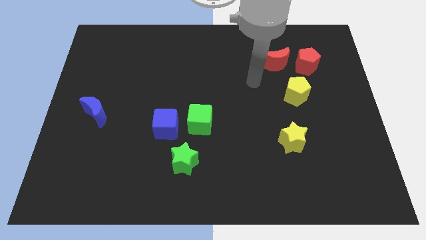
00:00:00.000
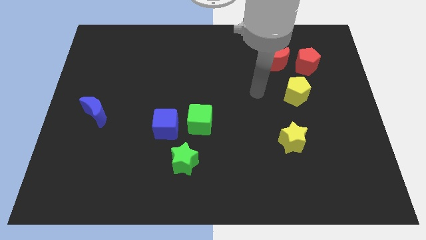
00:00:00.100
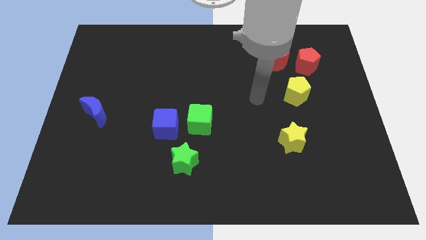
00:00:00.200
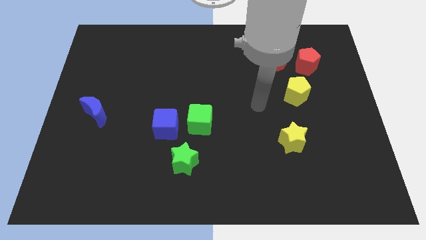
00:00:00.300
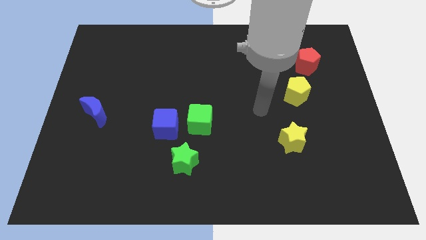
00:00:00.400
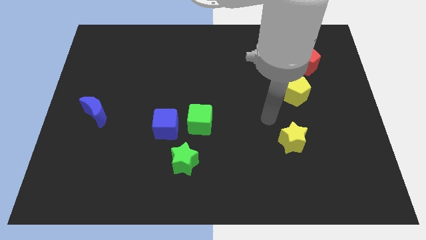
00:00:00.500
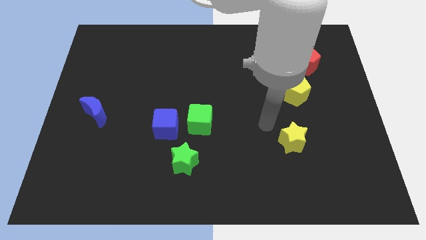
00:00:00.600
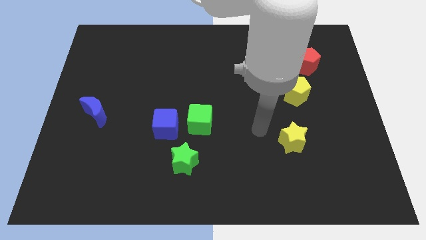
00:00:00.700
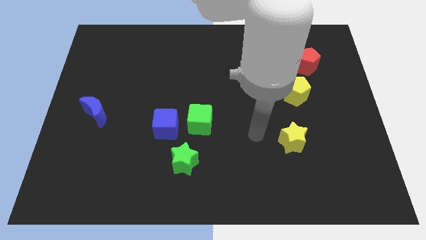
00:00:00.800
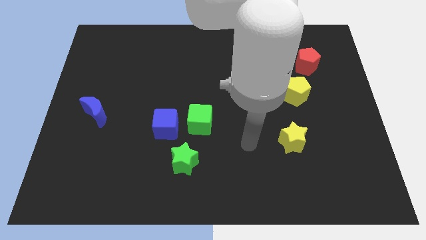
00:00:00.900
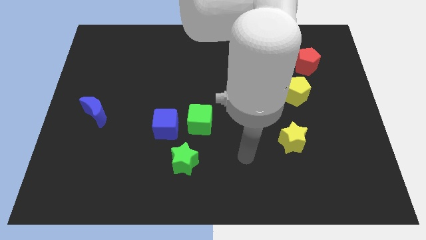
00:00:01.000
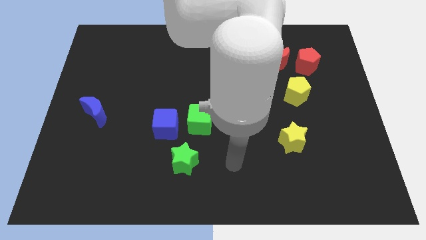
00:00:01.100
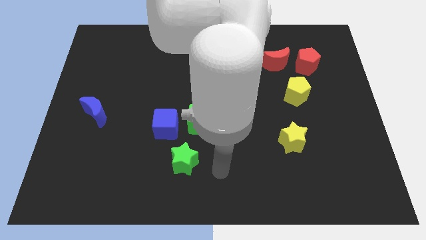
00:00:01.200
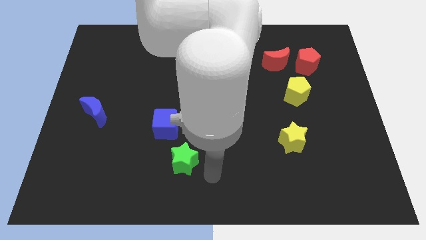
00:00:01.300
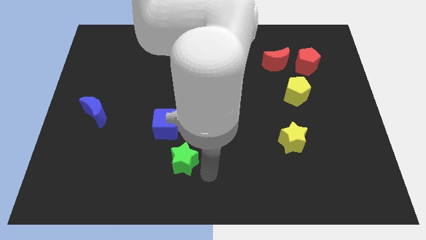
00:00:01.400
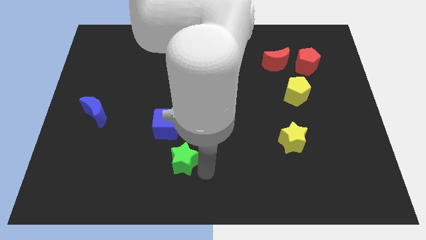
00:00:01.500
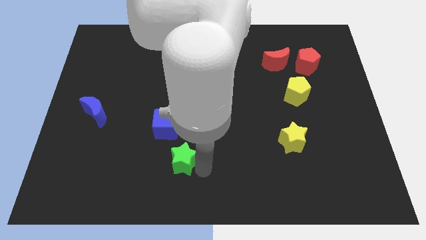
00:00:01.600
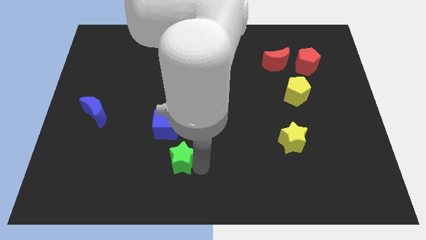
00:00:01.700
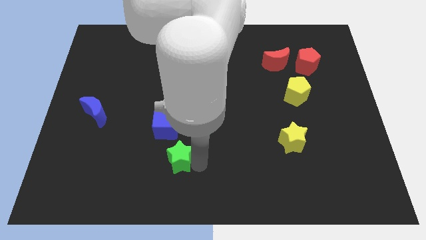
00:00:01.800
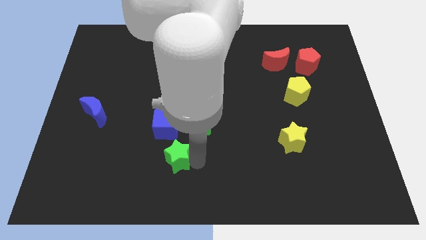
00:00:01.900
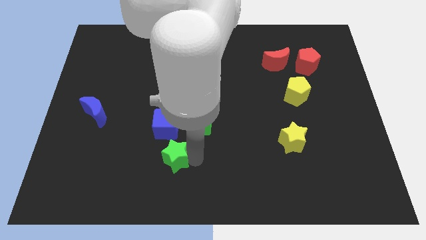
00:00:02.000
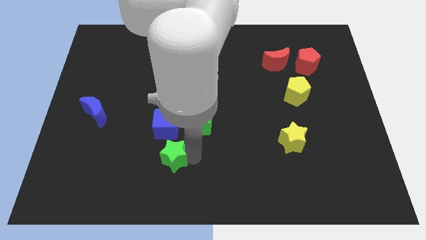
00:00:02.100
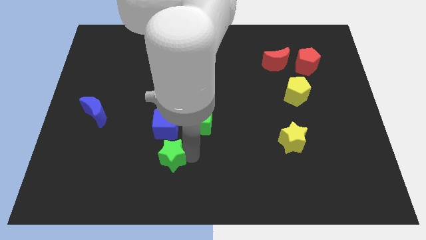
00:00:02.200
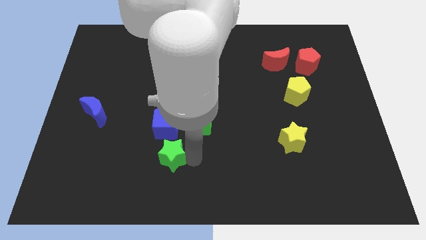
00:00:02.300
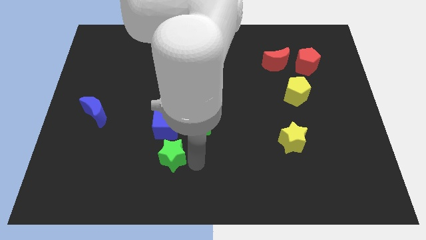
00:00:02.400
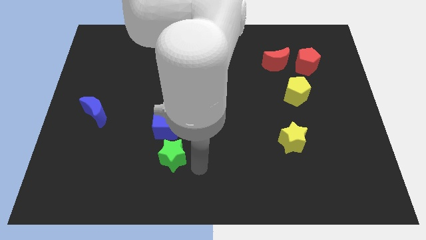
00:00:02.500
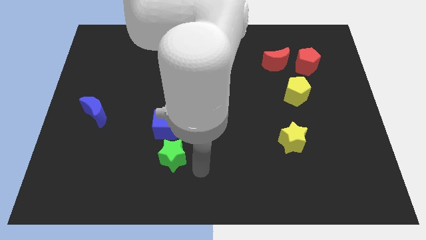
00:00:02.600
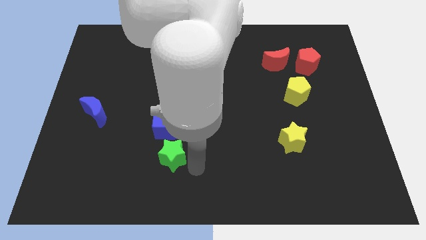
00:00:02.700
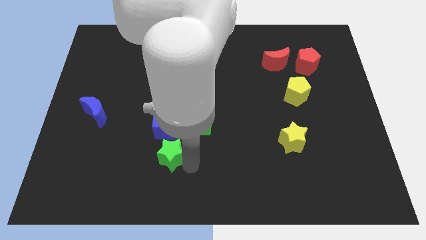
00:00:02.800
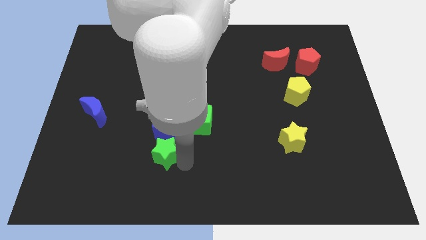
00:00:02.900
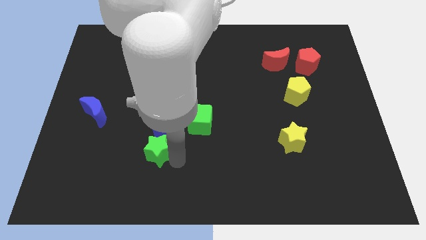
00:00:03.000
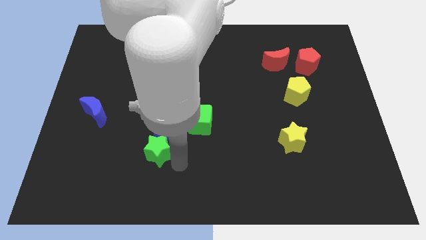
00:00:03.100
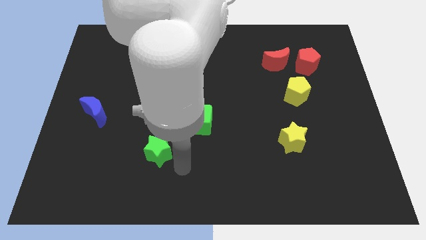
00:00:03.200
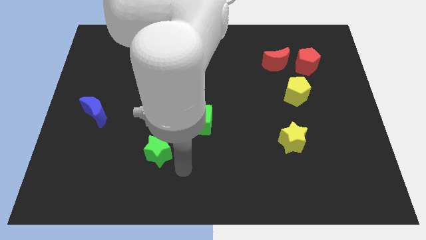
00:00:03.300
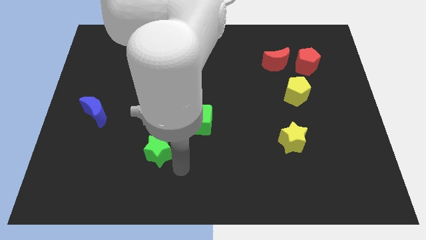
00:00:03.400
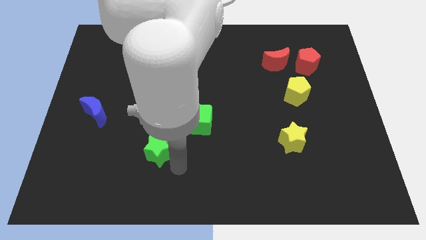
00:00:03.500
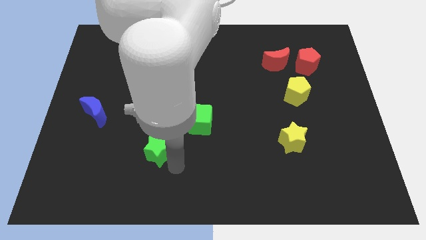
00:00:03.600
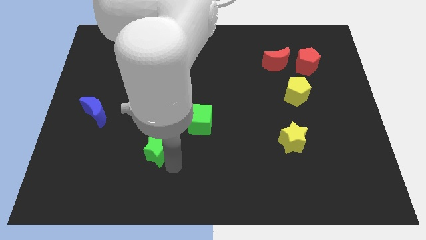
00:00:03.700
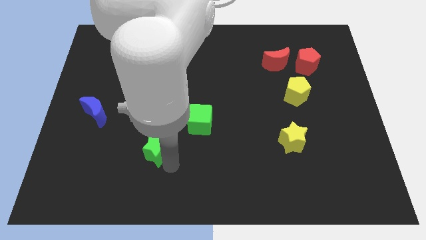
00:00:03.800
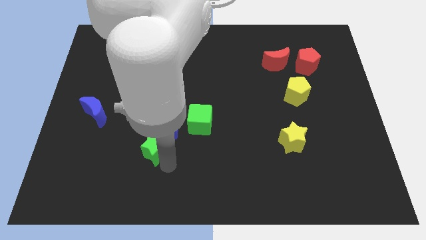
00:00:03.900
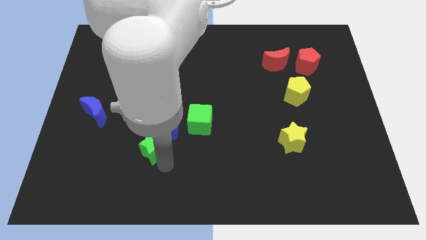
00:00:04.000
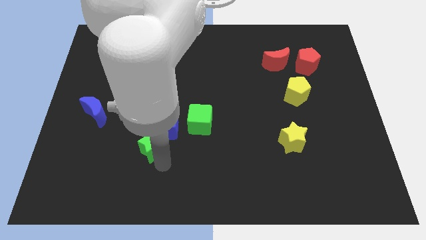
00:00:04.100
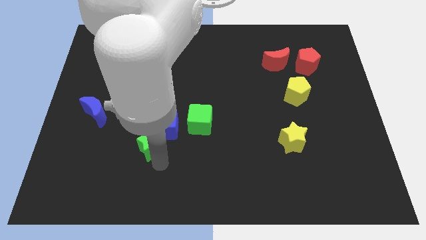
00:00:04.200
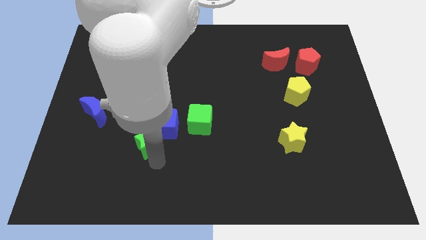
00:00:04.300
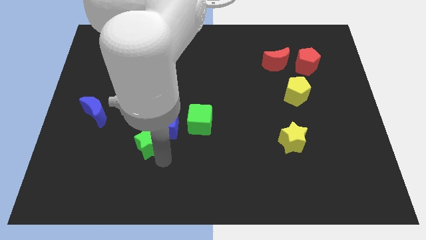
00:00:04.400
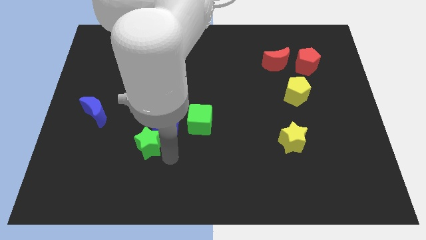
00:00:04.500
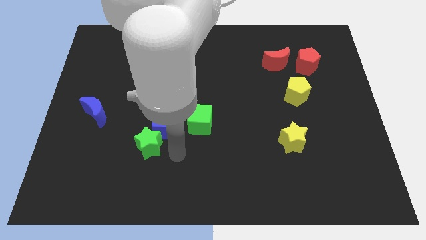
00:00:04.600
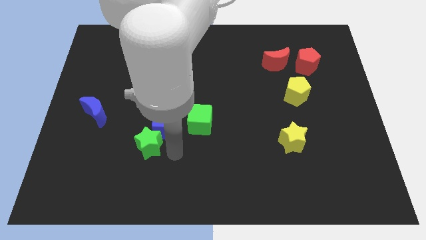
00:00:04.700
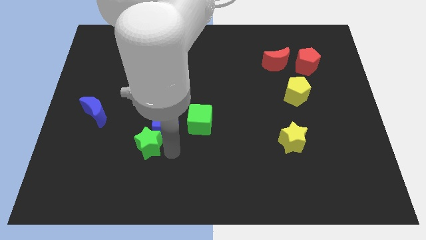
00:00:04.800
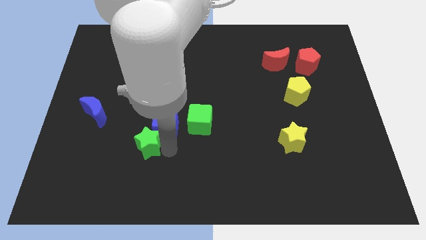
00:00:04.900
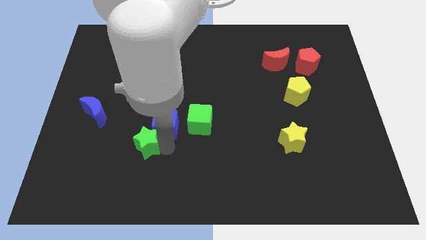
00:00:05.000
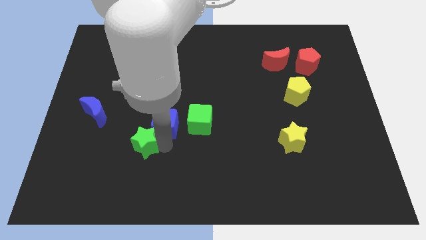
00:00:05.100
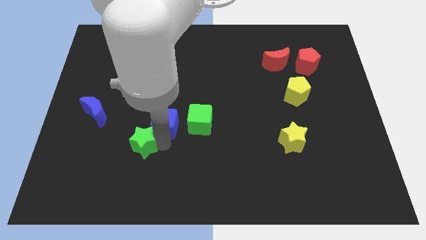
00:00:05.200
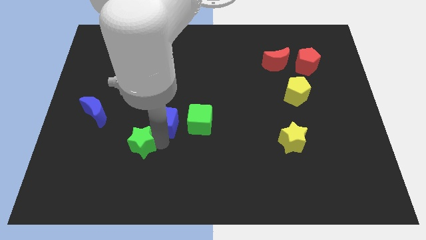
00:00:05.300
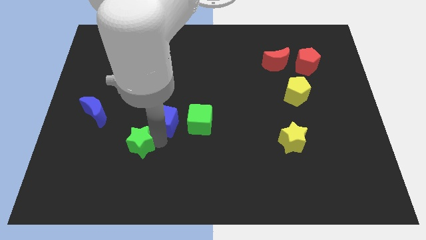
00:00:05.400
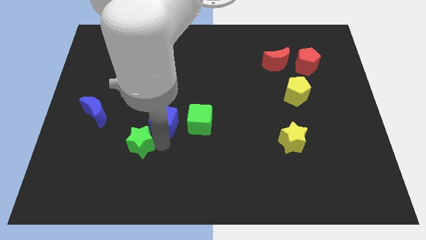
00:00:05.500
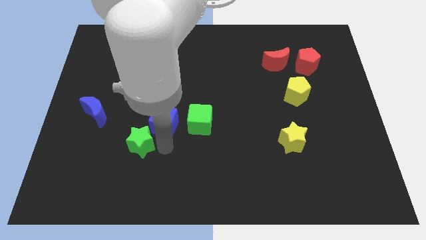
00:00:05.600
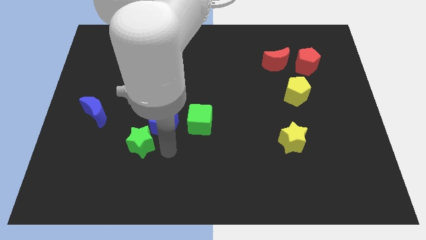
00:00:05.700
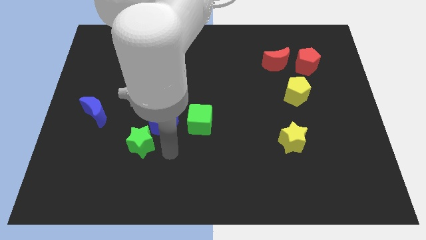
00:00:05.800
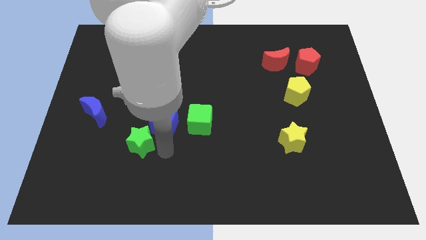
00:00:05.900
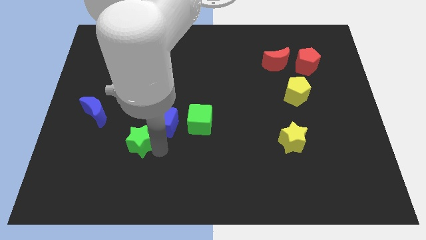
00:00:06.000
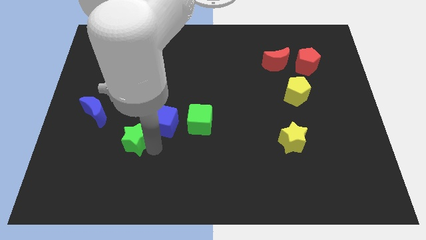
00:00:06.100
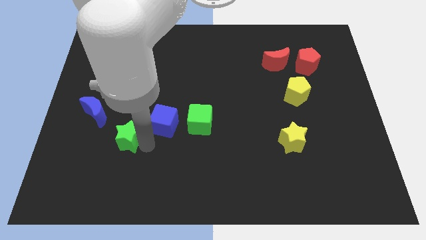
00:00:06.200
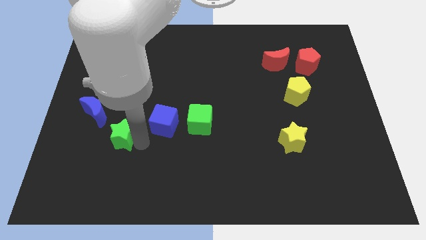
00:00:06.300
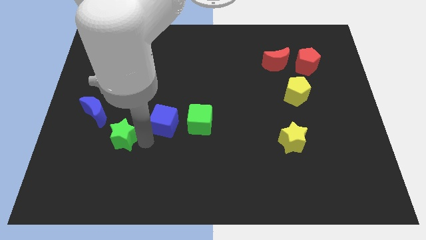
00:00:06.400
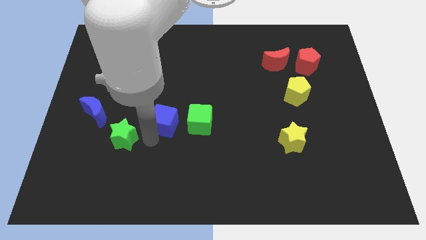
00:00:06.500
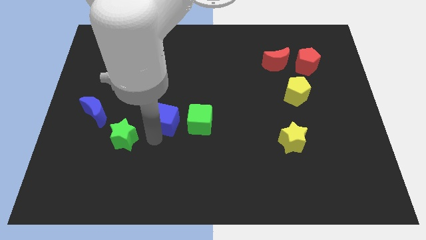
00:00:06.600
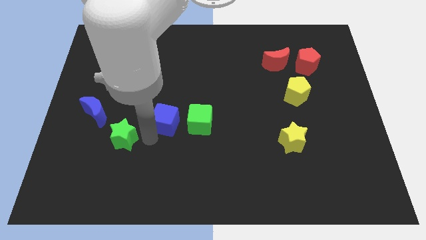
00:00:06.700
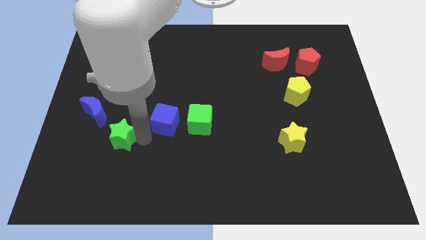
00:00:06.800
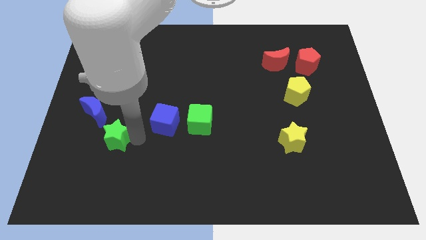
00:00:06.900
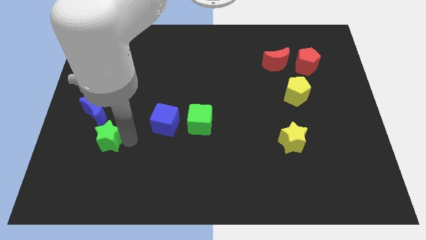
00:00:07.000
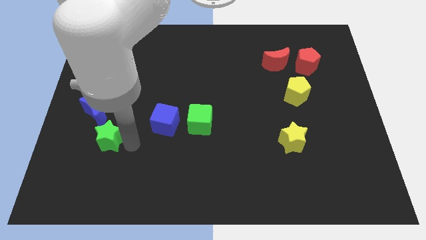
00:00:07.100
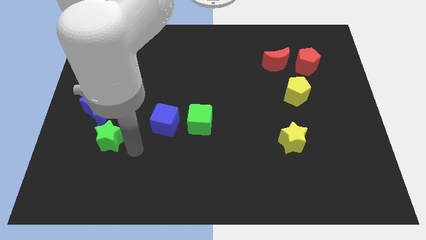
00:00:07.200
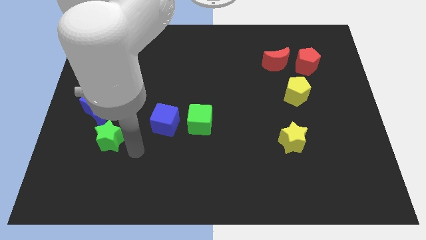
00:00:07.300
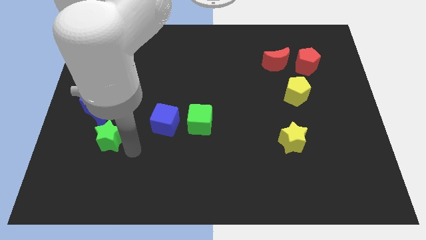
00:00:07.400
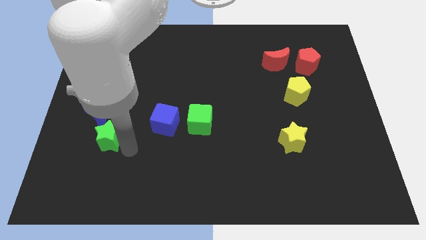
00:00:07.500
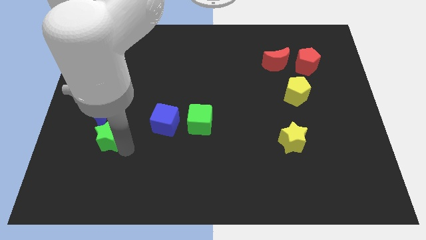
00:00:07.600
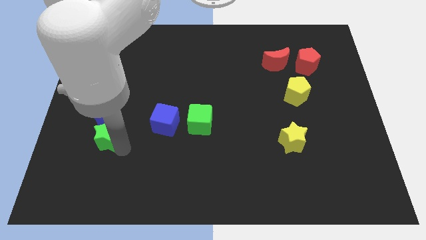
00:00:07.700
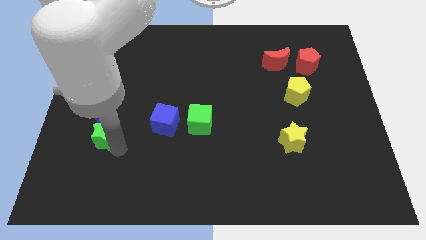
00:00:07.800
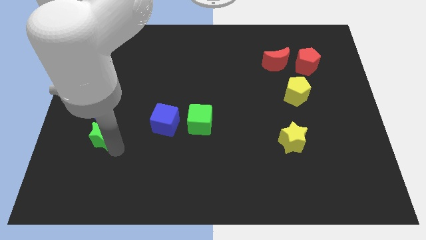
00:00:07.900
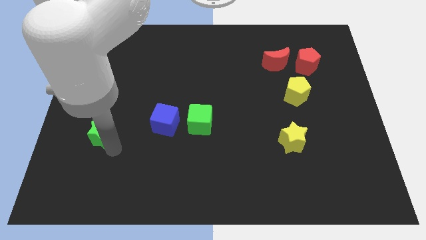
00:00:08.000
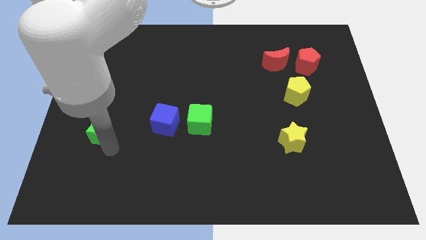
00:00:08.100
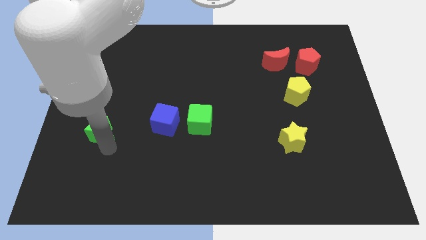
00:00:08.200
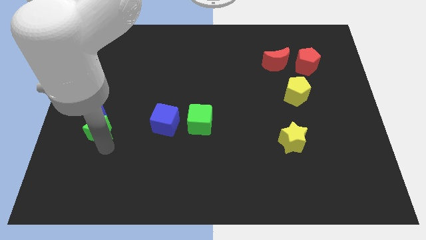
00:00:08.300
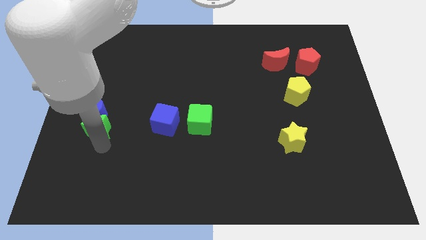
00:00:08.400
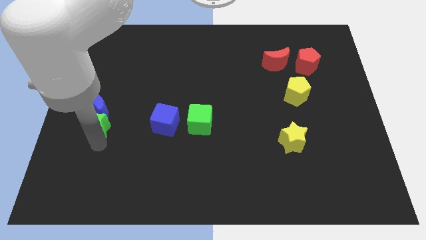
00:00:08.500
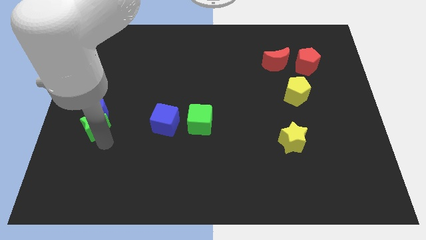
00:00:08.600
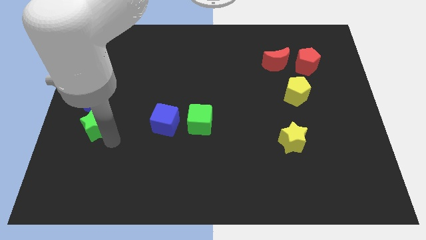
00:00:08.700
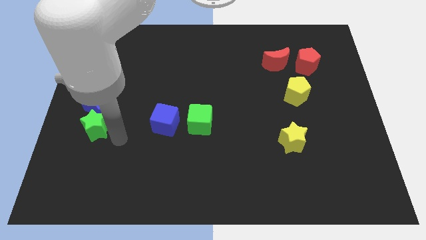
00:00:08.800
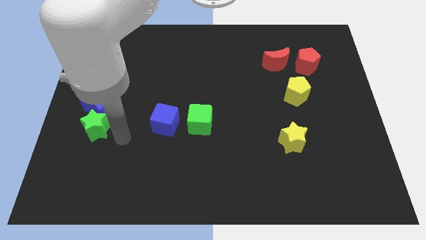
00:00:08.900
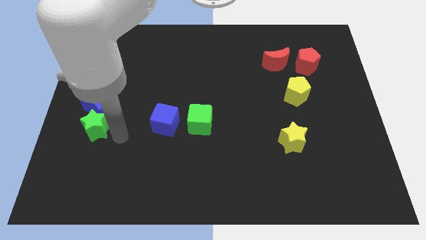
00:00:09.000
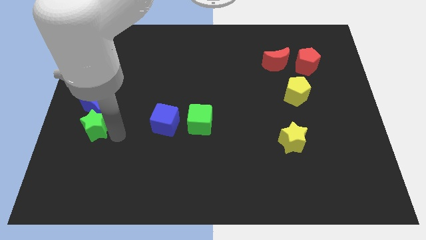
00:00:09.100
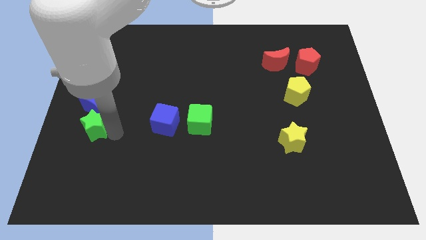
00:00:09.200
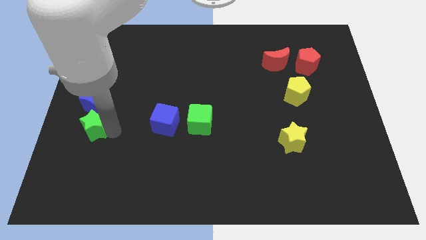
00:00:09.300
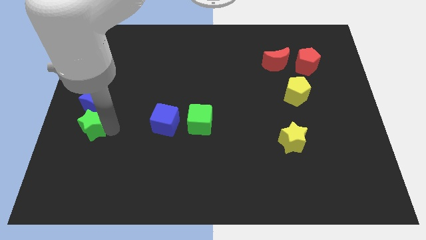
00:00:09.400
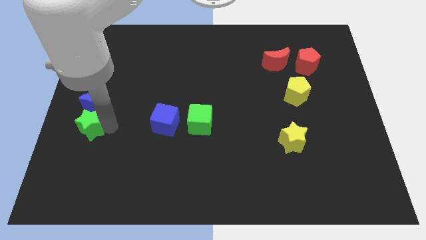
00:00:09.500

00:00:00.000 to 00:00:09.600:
move the green star to the left side
